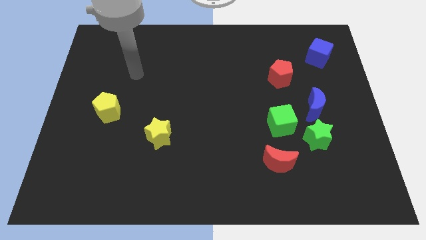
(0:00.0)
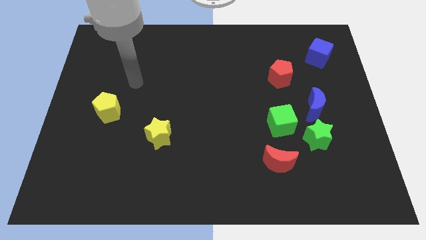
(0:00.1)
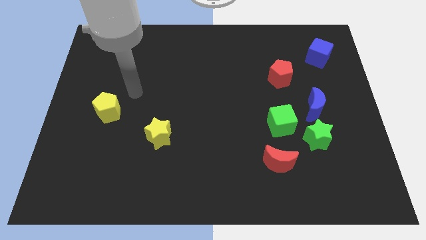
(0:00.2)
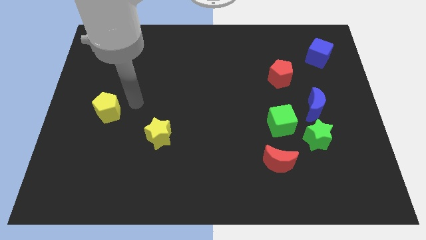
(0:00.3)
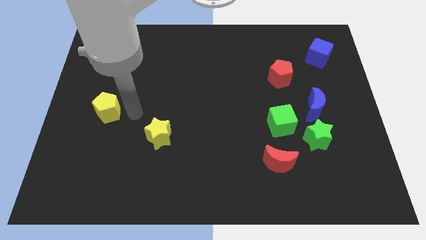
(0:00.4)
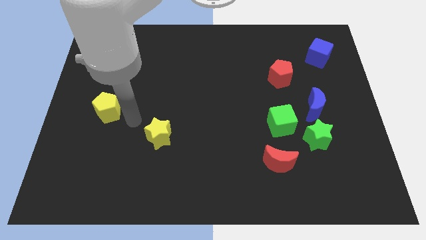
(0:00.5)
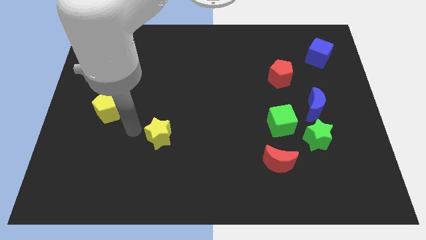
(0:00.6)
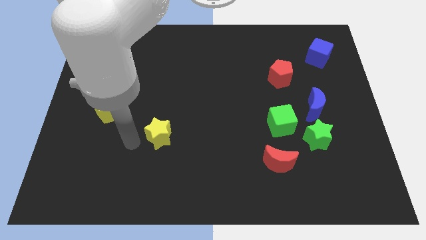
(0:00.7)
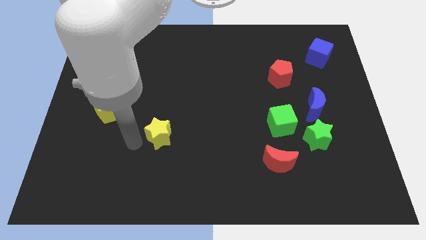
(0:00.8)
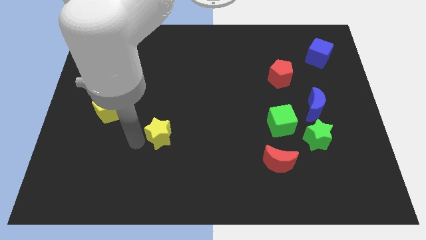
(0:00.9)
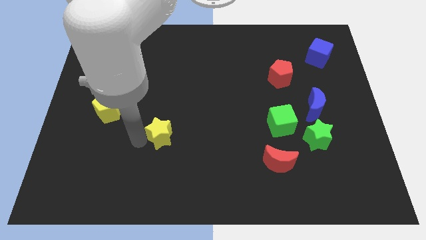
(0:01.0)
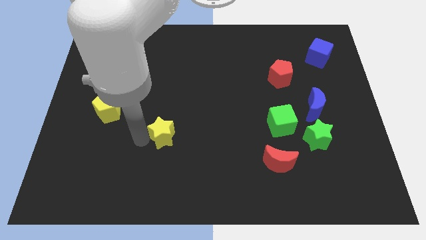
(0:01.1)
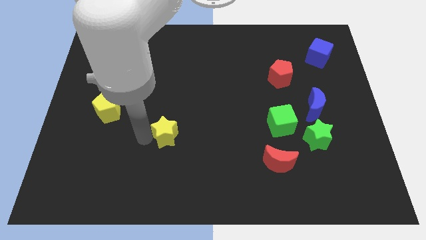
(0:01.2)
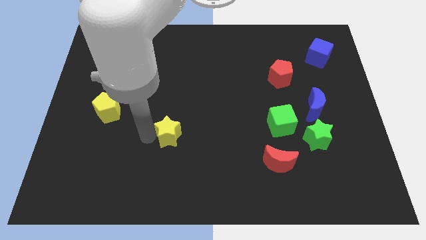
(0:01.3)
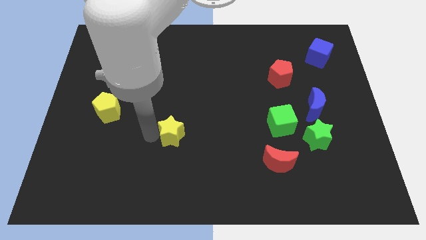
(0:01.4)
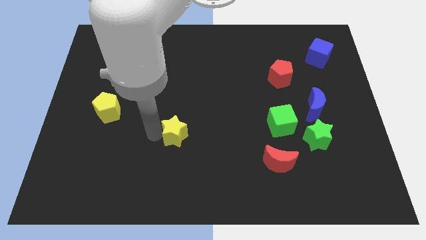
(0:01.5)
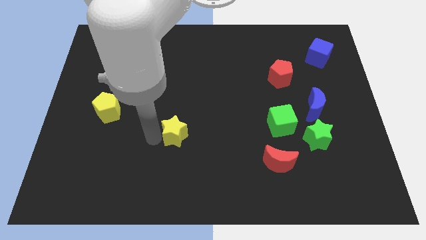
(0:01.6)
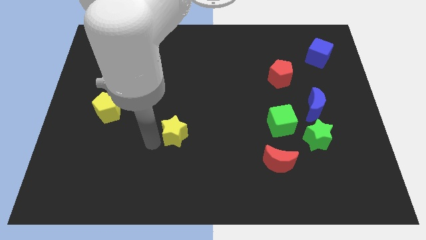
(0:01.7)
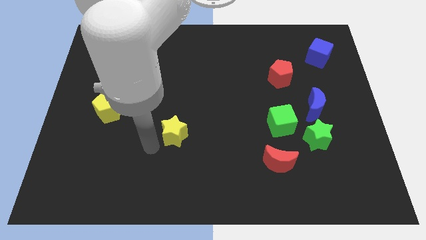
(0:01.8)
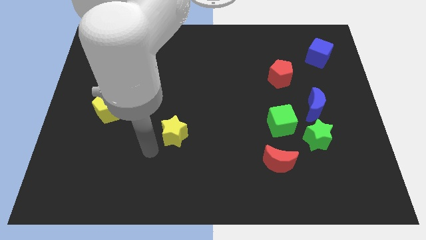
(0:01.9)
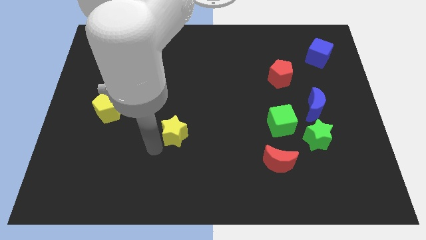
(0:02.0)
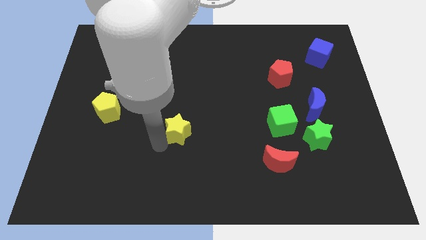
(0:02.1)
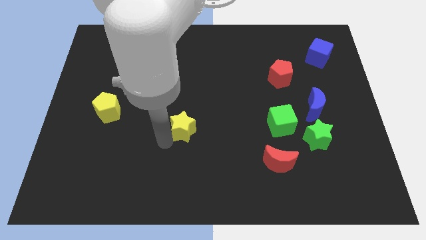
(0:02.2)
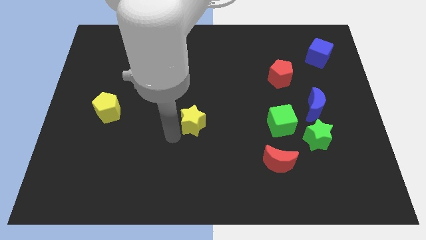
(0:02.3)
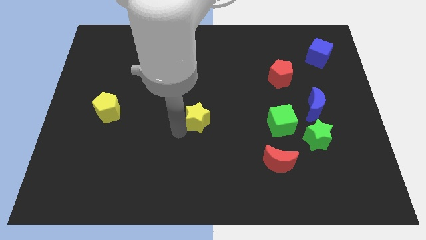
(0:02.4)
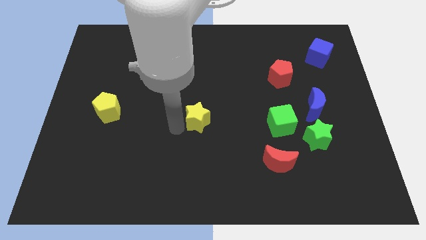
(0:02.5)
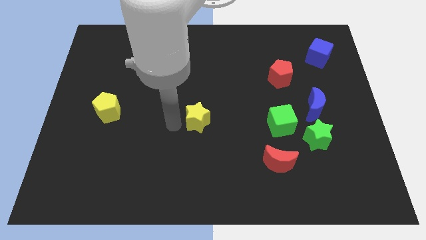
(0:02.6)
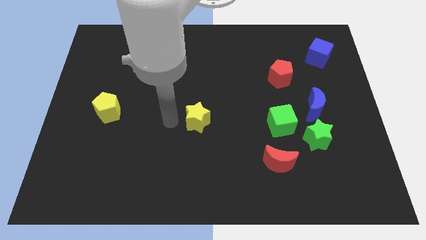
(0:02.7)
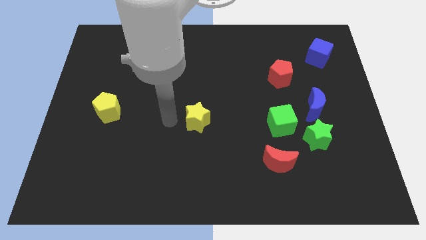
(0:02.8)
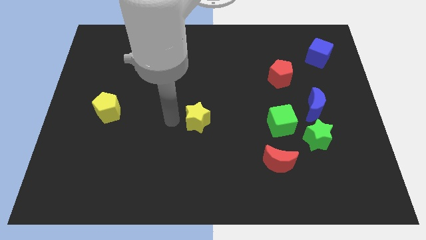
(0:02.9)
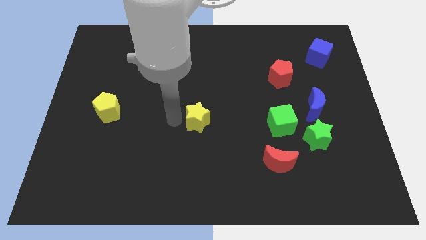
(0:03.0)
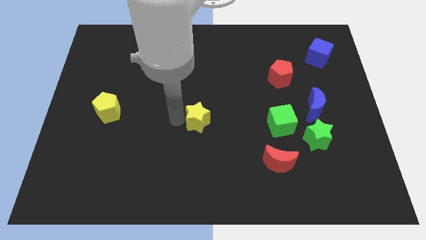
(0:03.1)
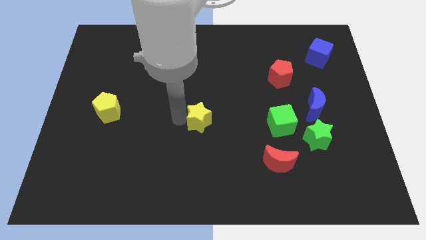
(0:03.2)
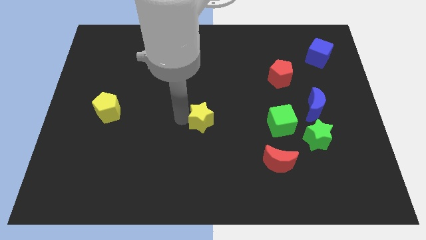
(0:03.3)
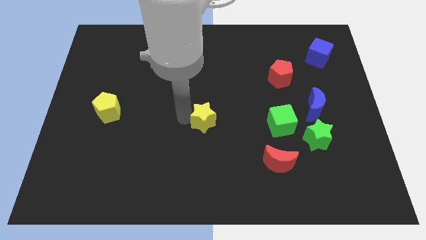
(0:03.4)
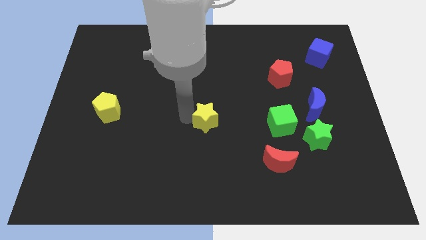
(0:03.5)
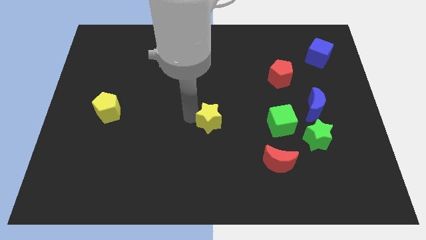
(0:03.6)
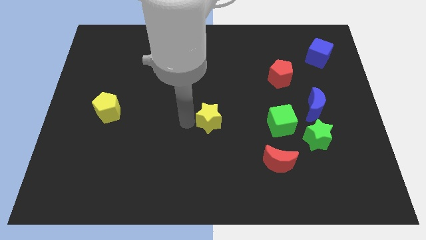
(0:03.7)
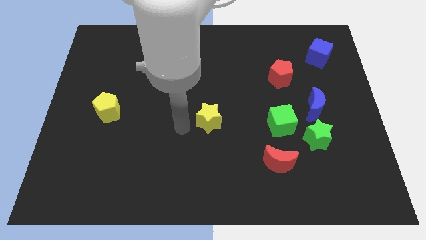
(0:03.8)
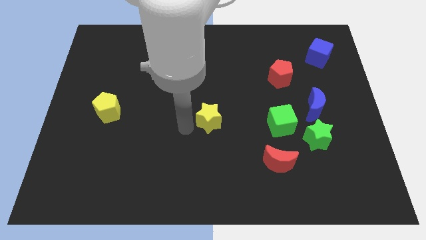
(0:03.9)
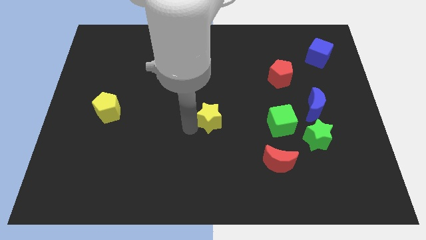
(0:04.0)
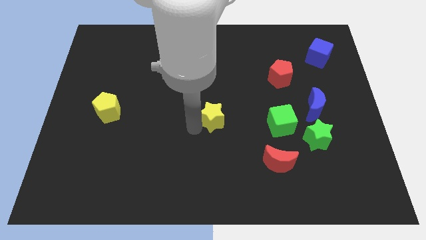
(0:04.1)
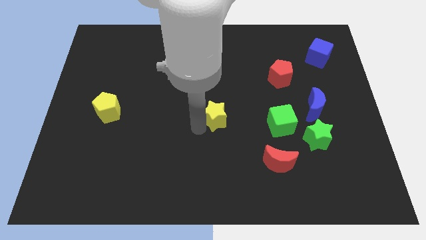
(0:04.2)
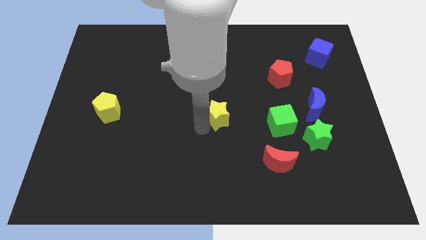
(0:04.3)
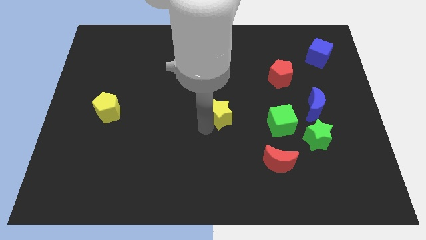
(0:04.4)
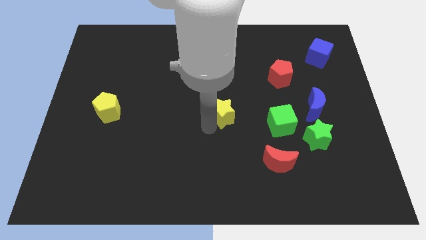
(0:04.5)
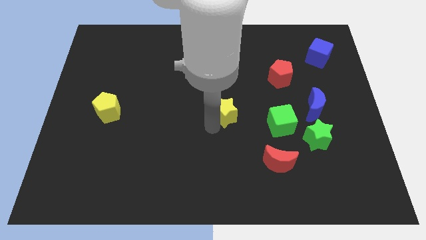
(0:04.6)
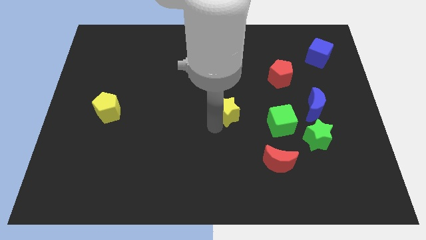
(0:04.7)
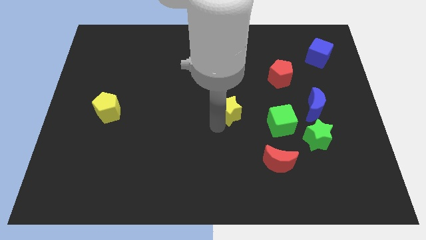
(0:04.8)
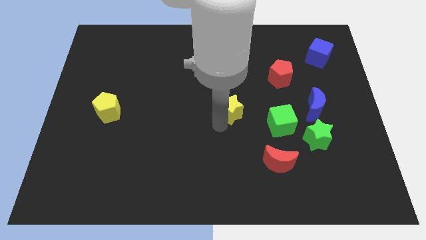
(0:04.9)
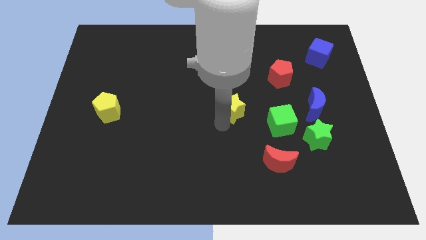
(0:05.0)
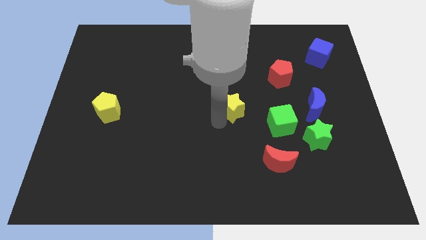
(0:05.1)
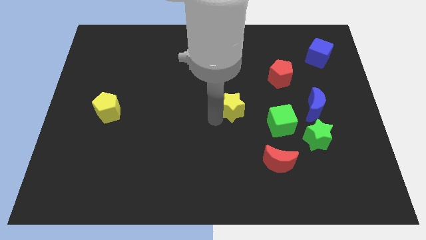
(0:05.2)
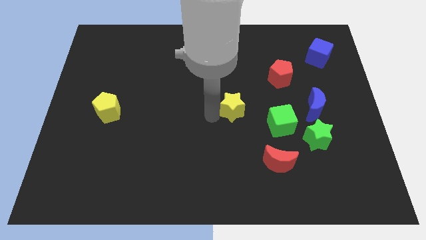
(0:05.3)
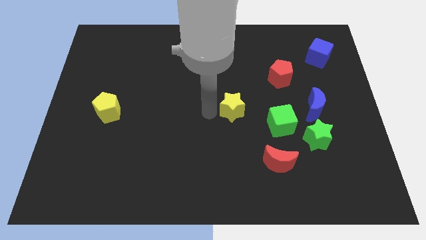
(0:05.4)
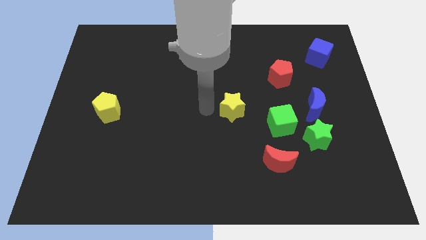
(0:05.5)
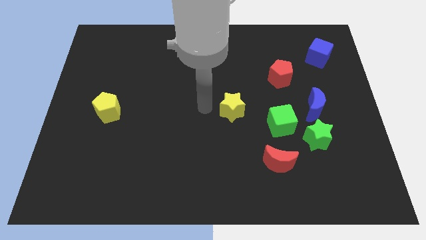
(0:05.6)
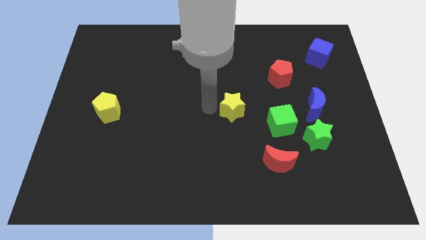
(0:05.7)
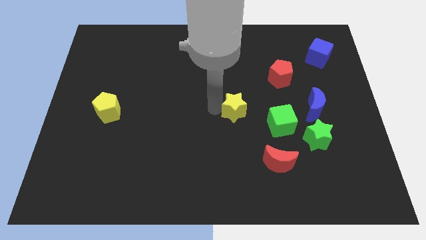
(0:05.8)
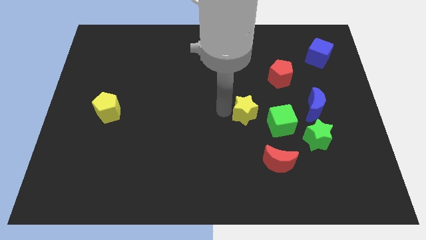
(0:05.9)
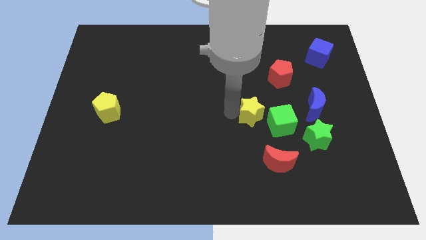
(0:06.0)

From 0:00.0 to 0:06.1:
move the yellow star to the left side of the blue moon

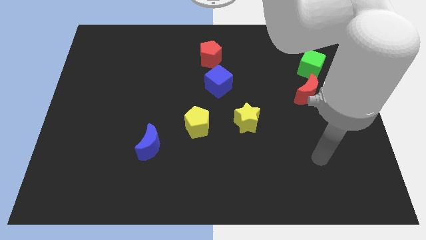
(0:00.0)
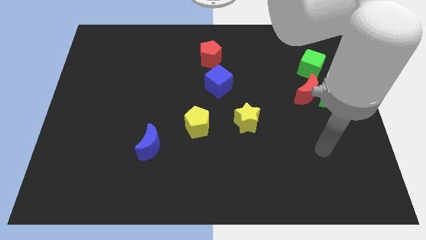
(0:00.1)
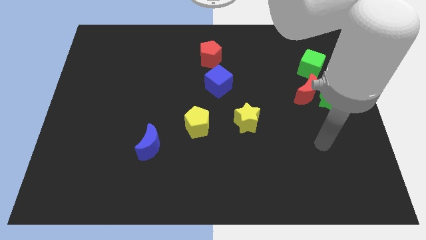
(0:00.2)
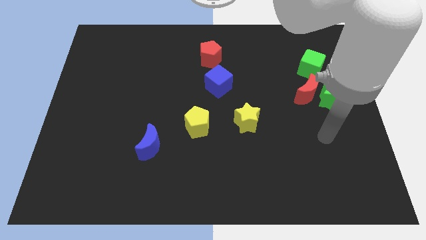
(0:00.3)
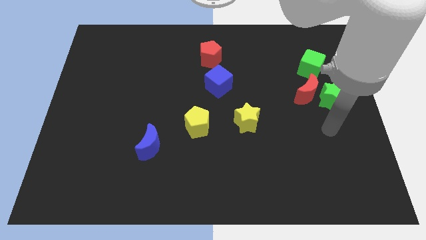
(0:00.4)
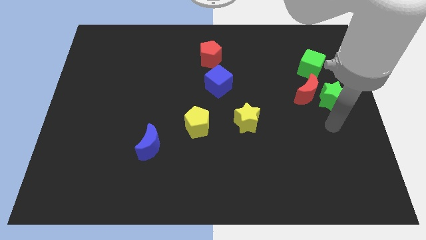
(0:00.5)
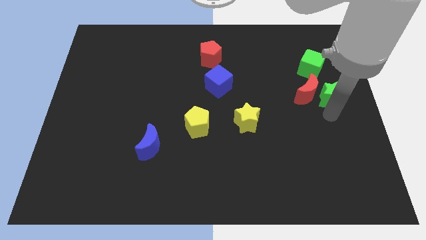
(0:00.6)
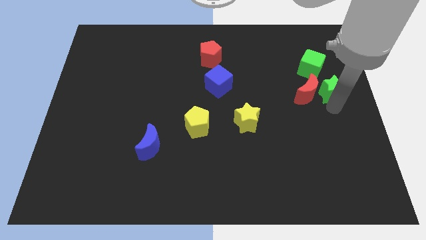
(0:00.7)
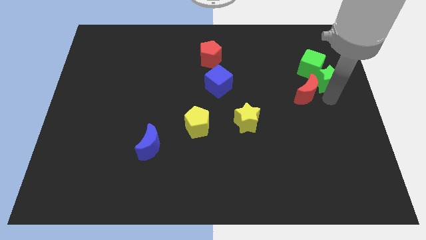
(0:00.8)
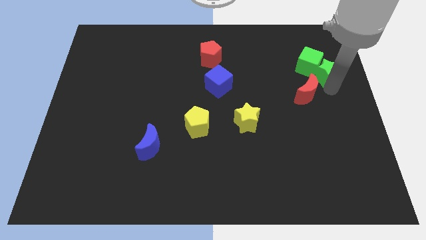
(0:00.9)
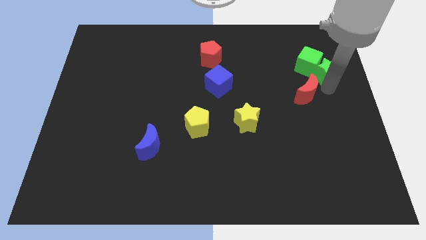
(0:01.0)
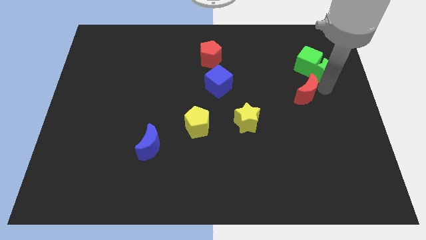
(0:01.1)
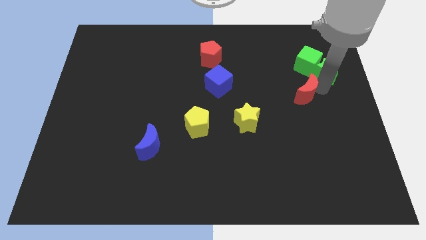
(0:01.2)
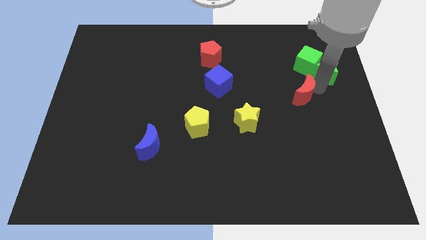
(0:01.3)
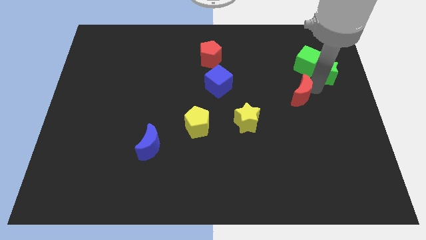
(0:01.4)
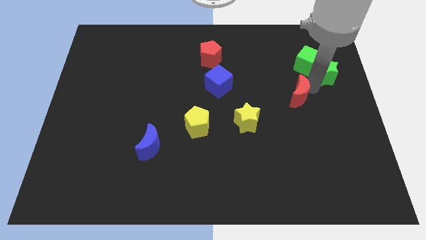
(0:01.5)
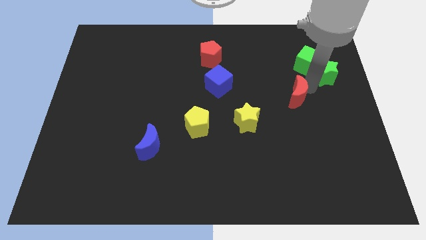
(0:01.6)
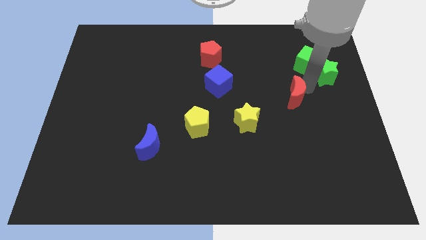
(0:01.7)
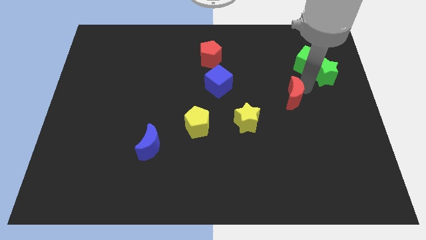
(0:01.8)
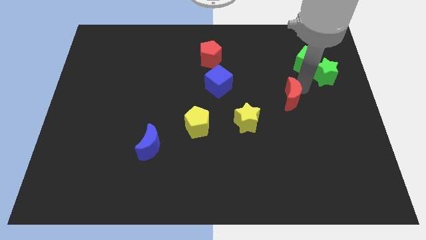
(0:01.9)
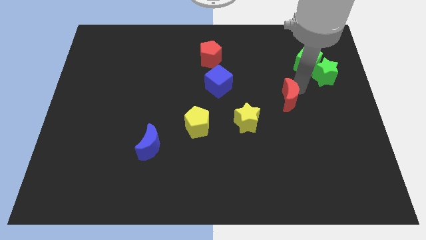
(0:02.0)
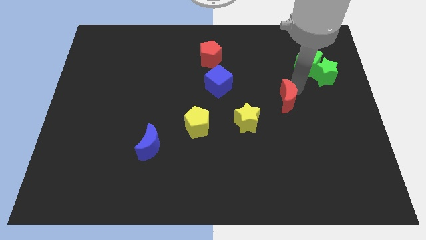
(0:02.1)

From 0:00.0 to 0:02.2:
put the red moon to the top right side of the yellow star
